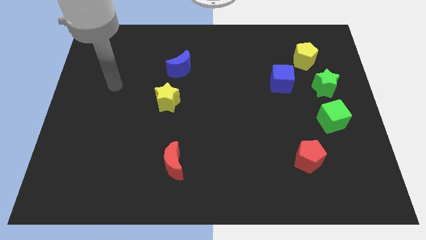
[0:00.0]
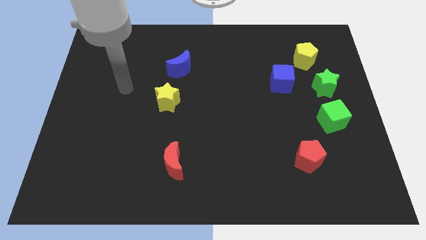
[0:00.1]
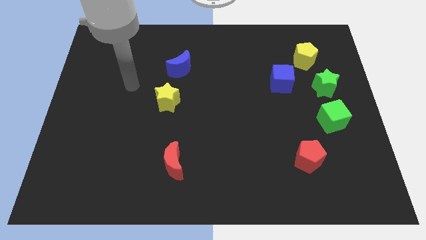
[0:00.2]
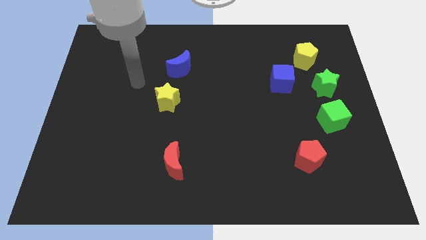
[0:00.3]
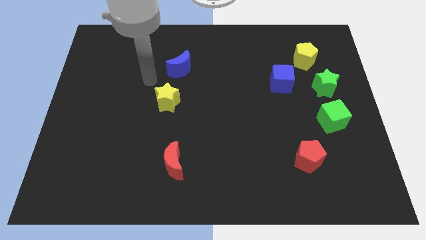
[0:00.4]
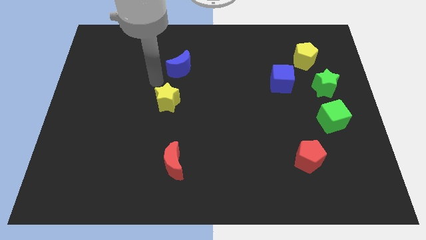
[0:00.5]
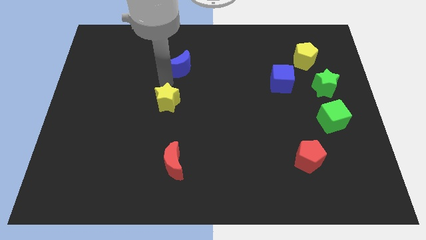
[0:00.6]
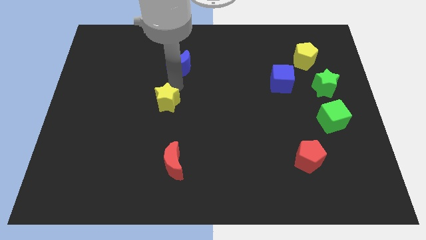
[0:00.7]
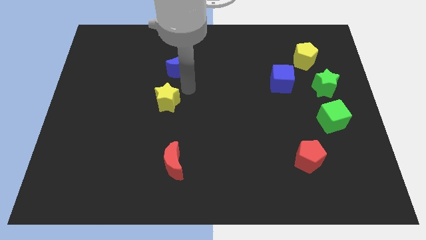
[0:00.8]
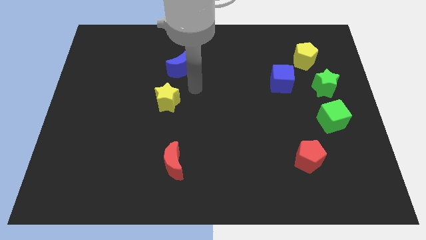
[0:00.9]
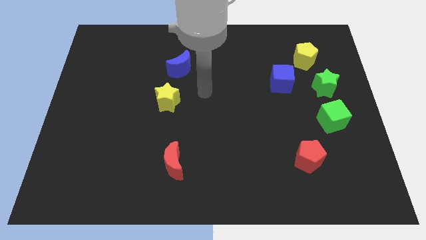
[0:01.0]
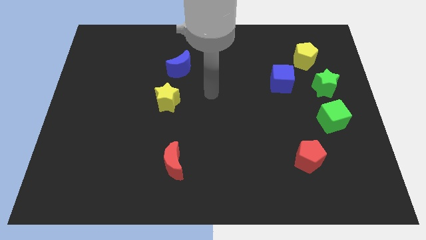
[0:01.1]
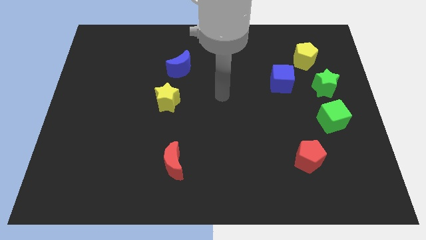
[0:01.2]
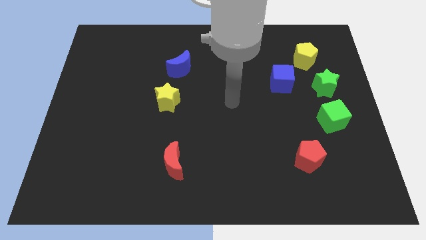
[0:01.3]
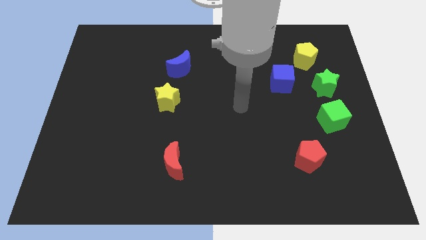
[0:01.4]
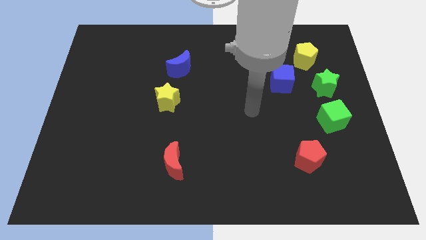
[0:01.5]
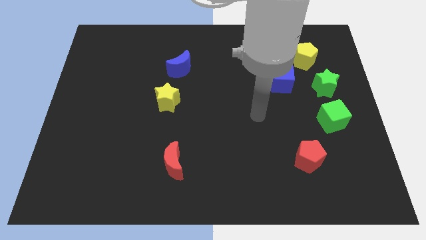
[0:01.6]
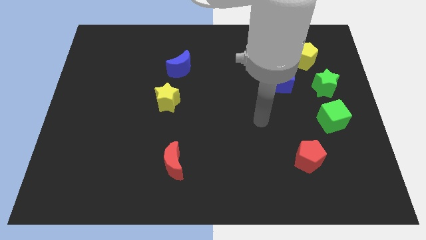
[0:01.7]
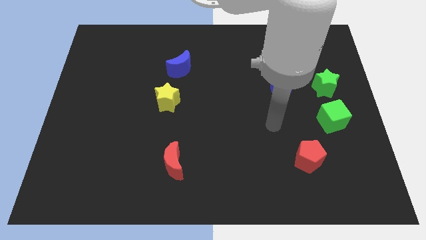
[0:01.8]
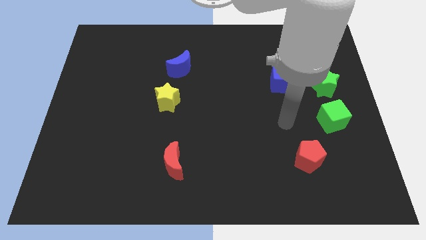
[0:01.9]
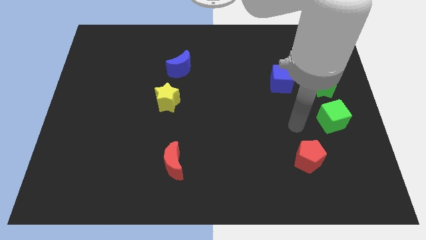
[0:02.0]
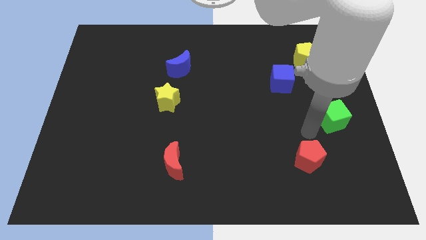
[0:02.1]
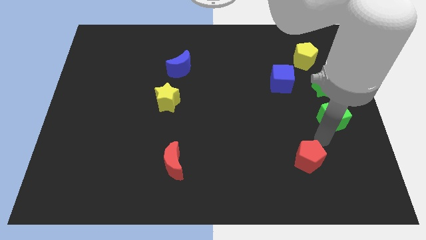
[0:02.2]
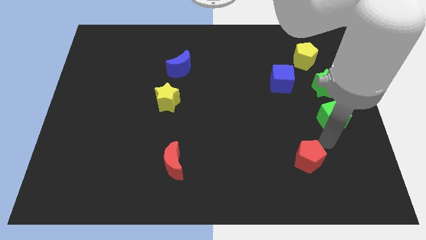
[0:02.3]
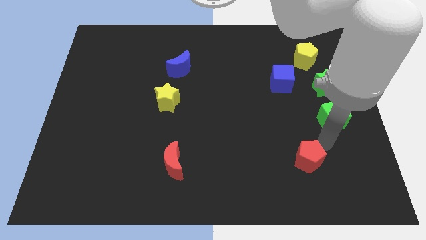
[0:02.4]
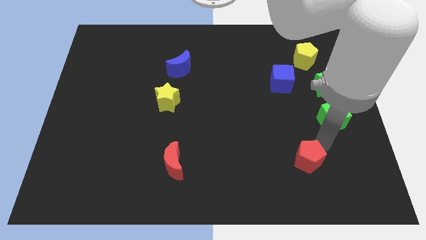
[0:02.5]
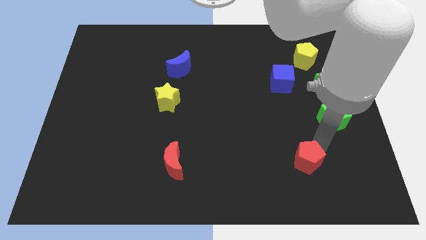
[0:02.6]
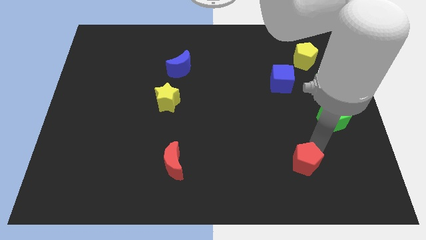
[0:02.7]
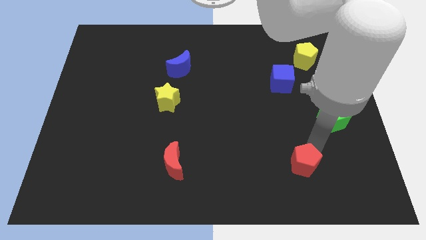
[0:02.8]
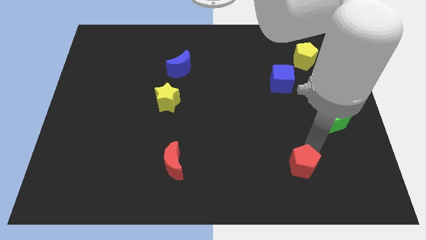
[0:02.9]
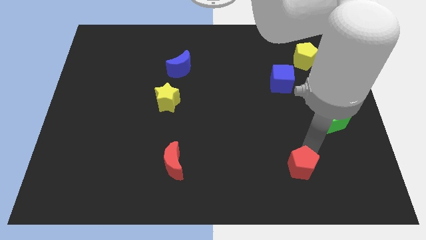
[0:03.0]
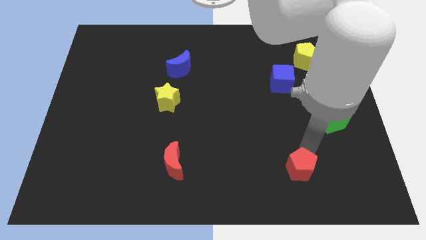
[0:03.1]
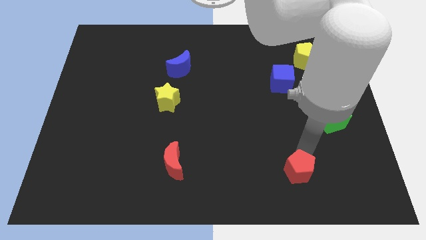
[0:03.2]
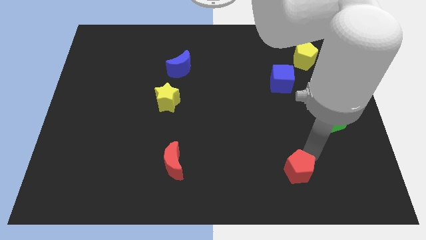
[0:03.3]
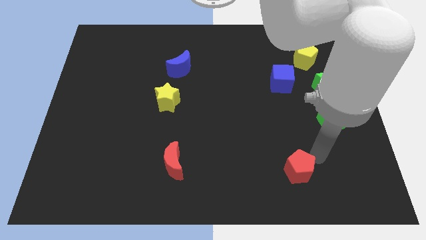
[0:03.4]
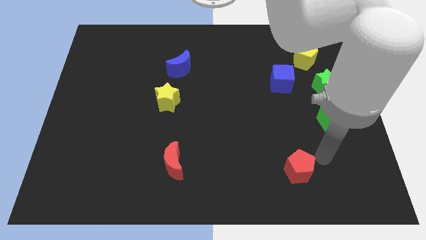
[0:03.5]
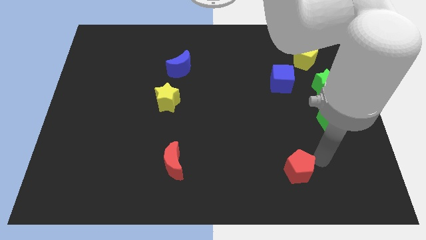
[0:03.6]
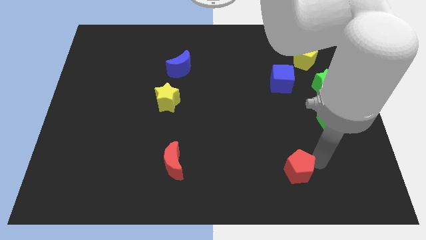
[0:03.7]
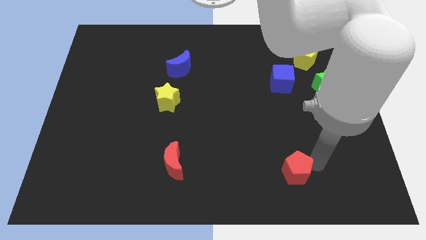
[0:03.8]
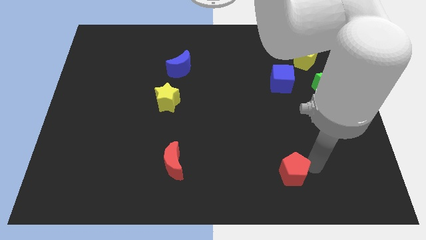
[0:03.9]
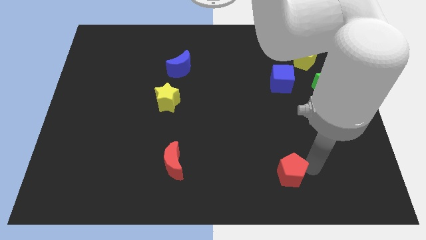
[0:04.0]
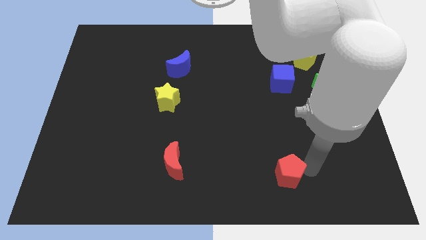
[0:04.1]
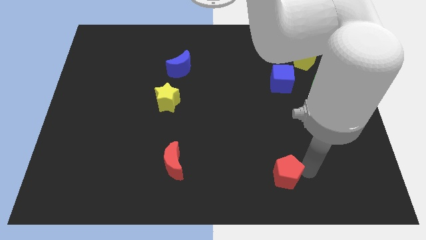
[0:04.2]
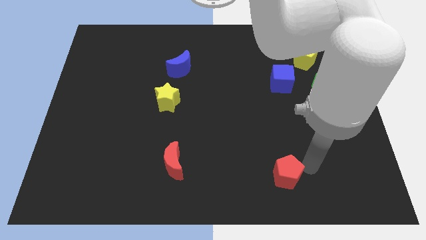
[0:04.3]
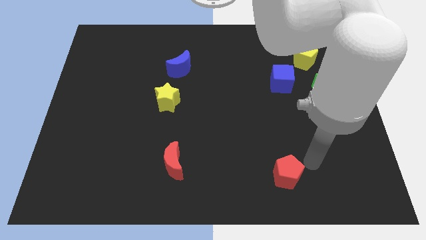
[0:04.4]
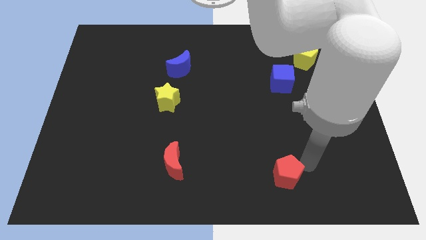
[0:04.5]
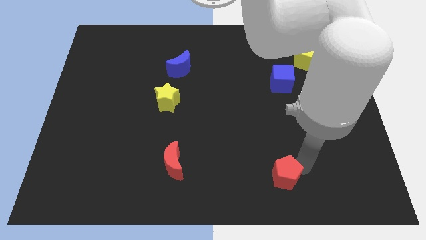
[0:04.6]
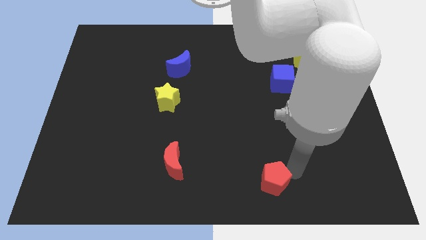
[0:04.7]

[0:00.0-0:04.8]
slide the red pentagon to the bottom

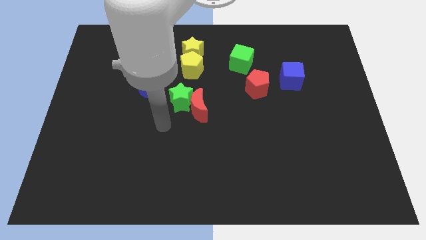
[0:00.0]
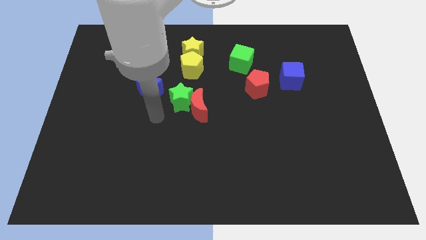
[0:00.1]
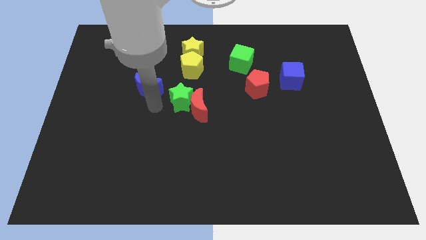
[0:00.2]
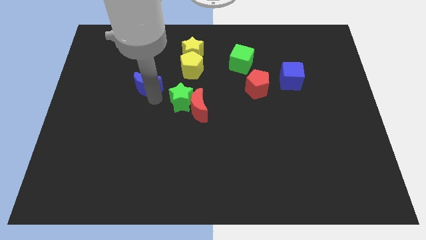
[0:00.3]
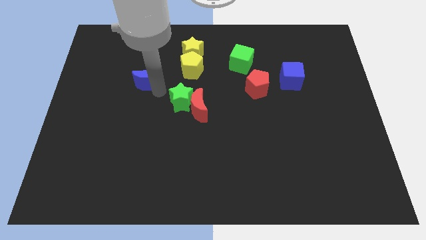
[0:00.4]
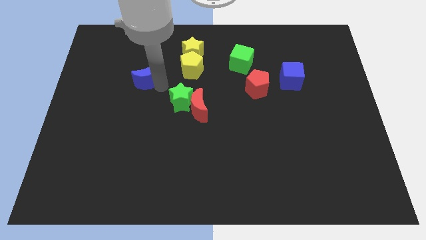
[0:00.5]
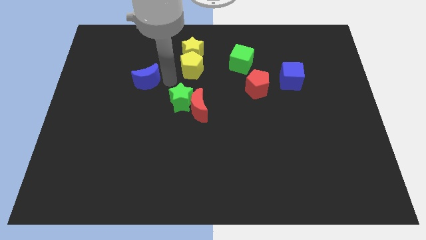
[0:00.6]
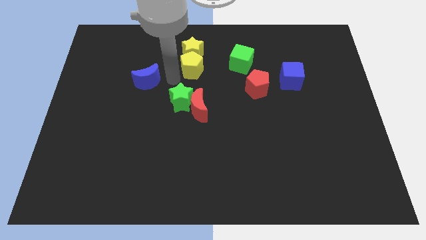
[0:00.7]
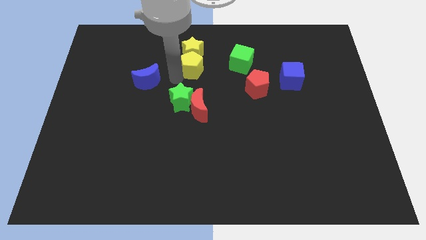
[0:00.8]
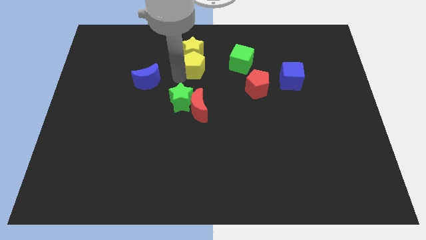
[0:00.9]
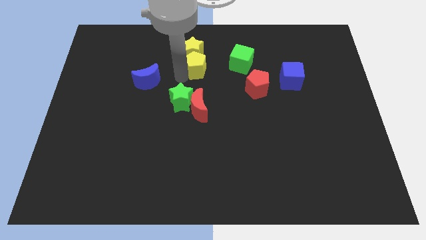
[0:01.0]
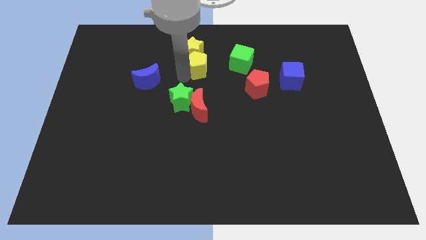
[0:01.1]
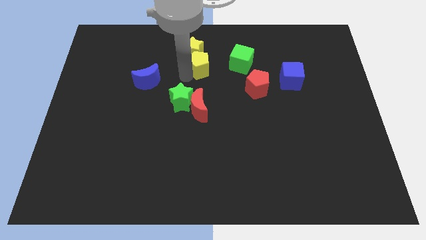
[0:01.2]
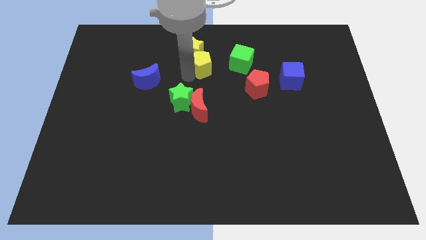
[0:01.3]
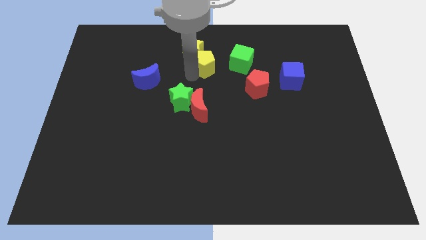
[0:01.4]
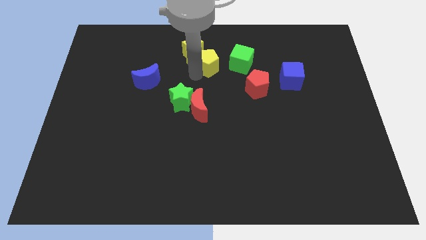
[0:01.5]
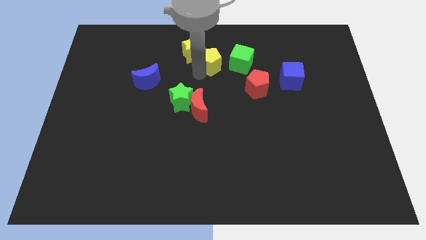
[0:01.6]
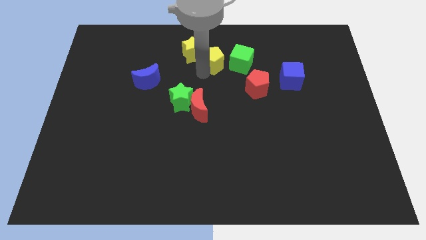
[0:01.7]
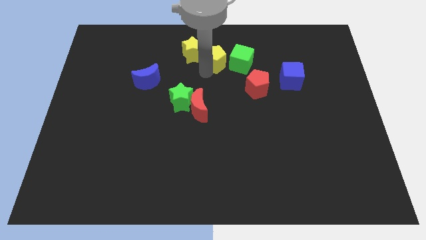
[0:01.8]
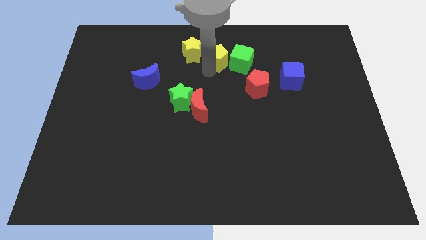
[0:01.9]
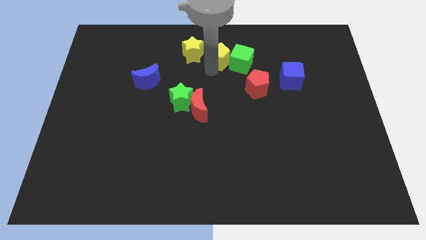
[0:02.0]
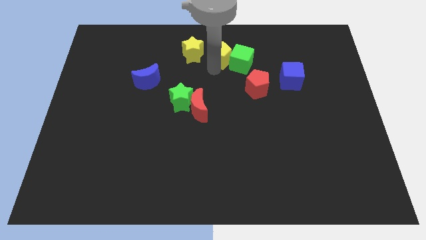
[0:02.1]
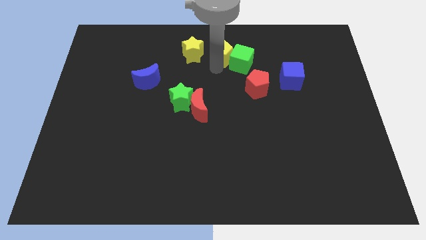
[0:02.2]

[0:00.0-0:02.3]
slide the yellow pentagon to the top side

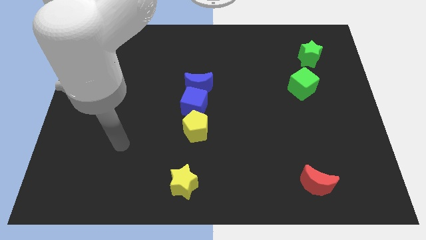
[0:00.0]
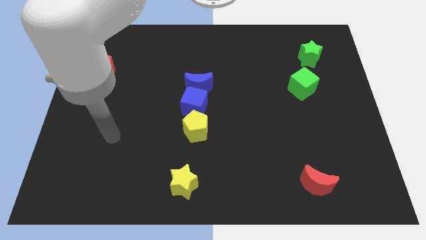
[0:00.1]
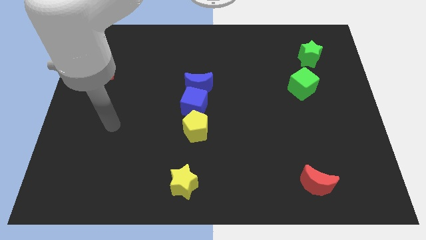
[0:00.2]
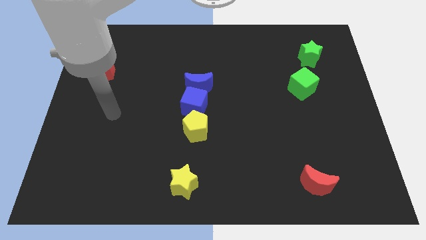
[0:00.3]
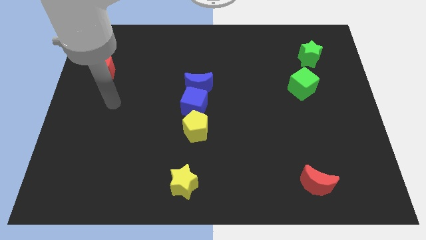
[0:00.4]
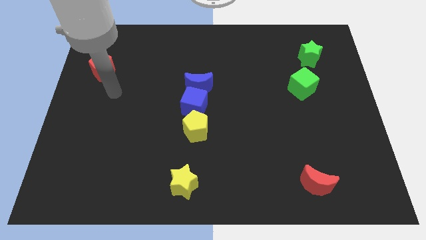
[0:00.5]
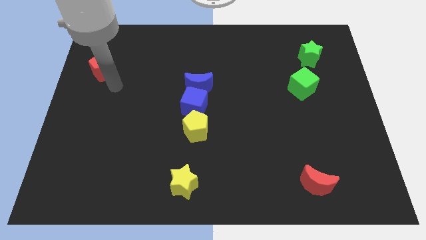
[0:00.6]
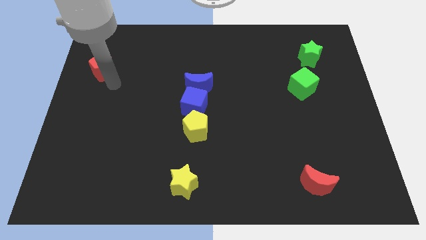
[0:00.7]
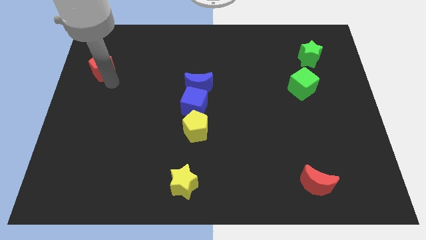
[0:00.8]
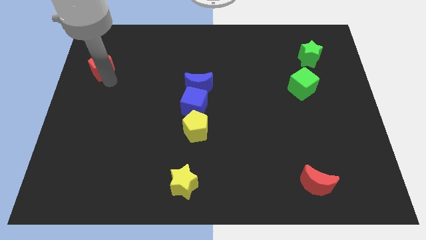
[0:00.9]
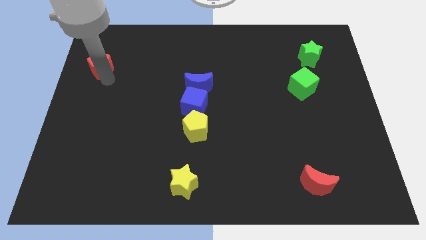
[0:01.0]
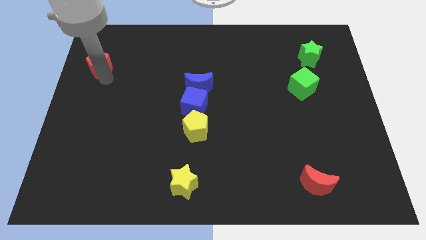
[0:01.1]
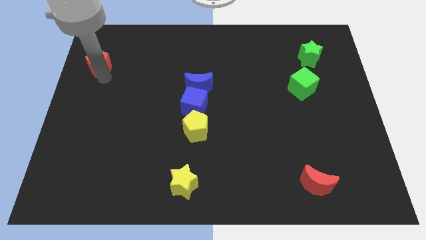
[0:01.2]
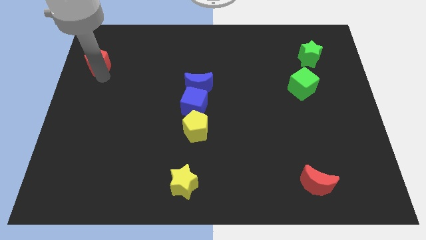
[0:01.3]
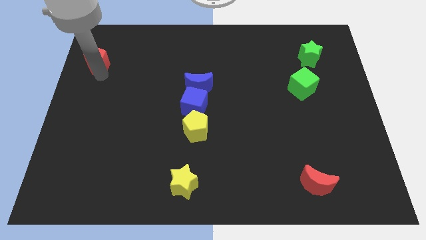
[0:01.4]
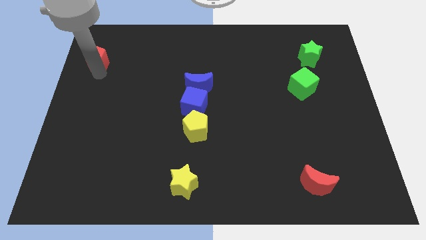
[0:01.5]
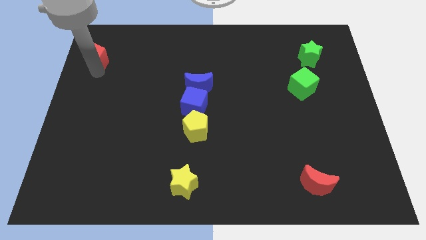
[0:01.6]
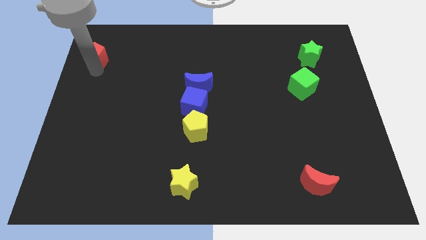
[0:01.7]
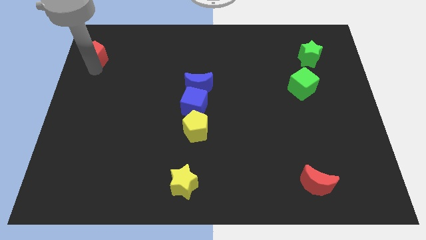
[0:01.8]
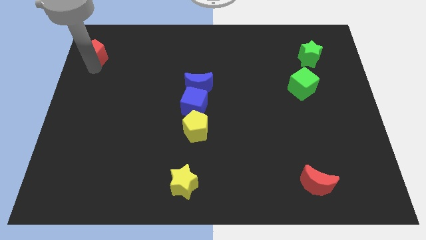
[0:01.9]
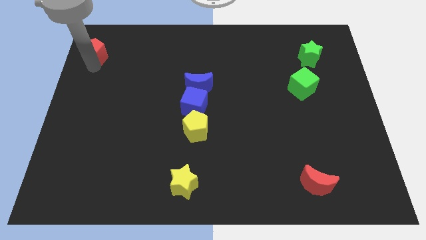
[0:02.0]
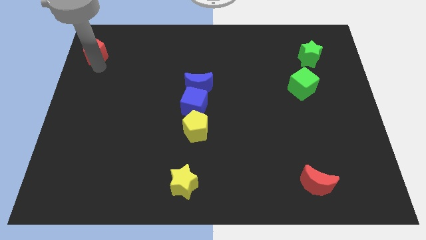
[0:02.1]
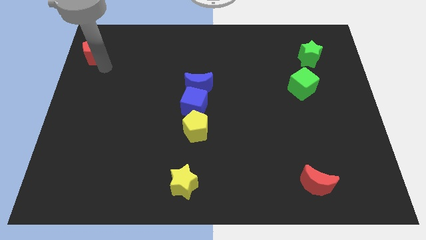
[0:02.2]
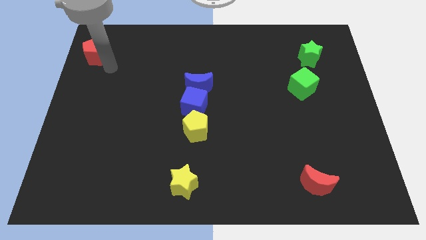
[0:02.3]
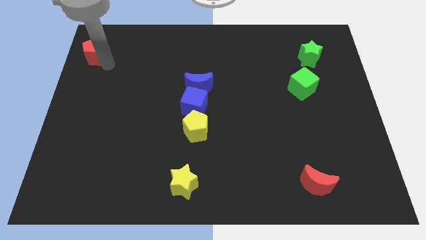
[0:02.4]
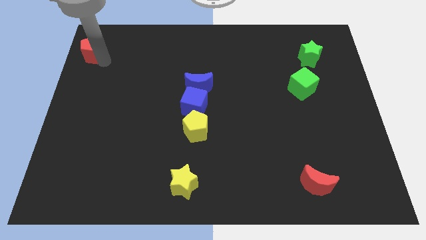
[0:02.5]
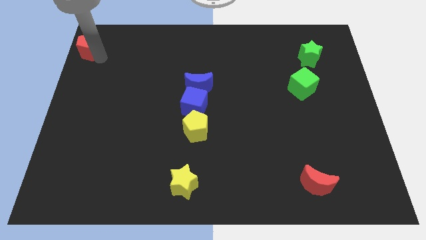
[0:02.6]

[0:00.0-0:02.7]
put the red pentagon to the top left
